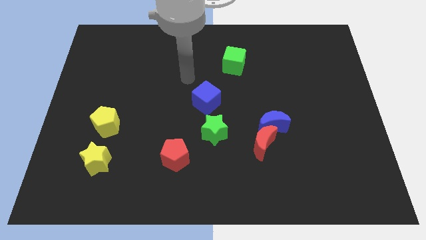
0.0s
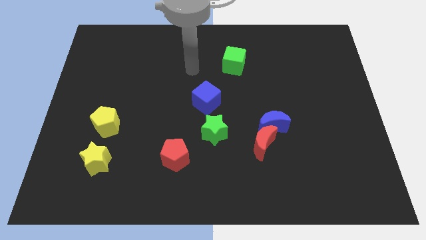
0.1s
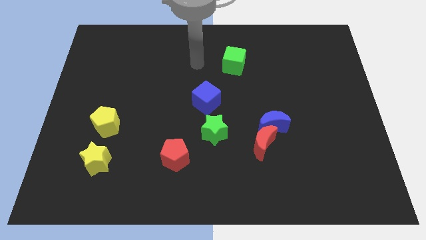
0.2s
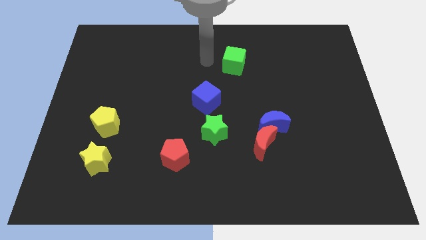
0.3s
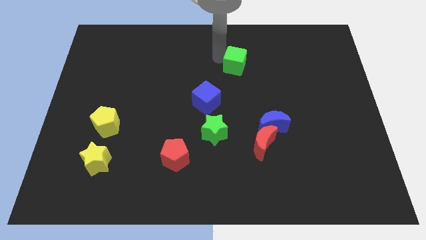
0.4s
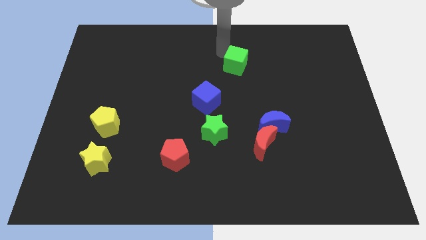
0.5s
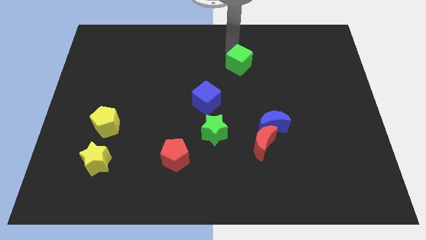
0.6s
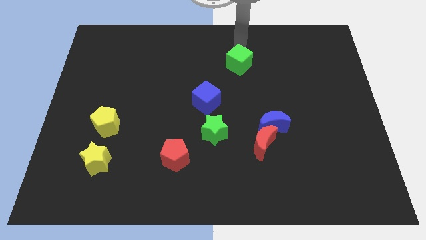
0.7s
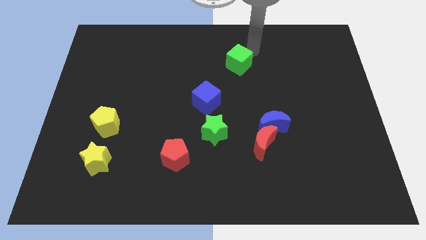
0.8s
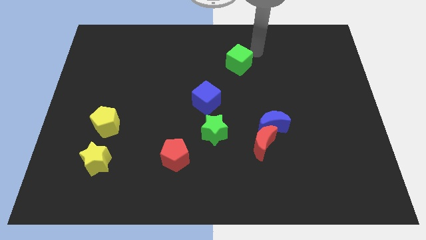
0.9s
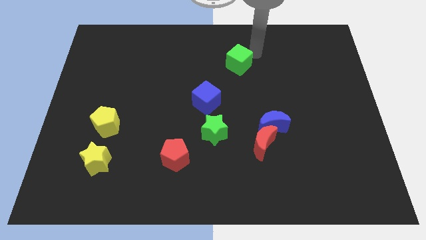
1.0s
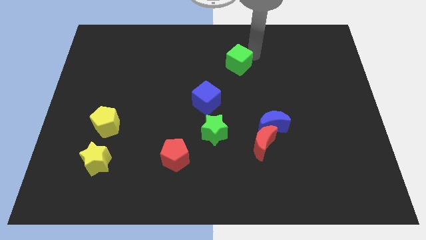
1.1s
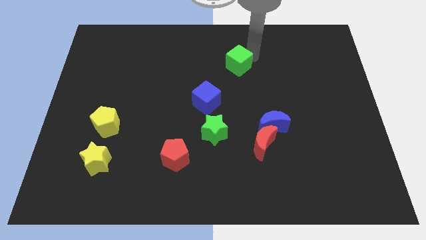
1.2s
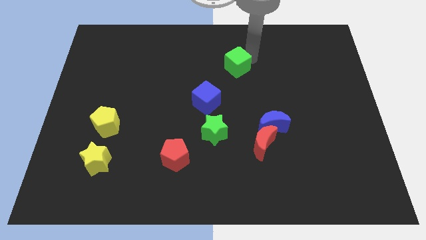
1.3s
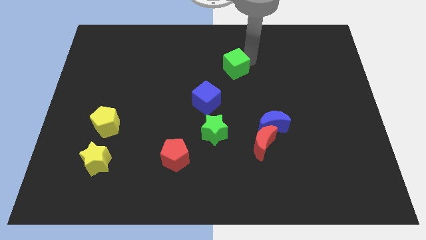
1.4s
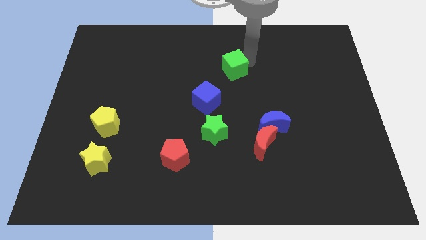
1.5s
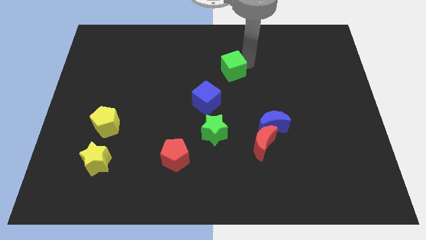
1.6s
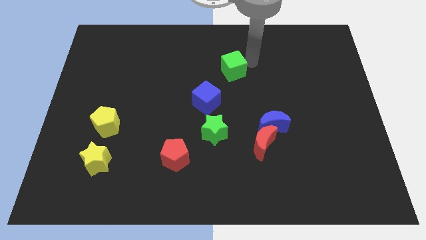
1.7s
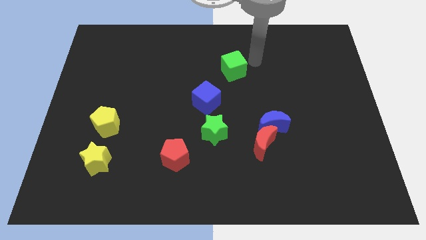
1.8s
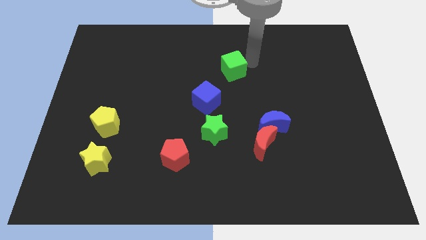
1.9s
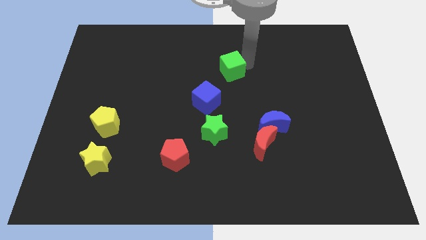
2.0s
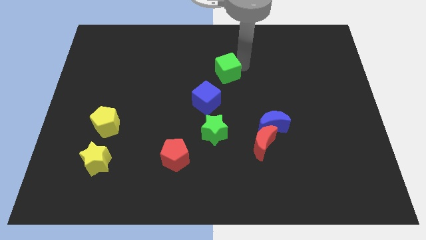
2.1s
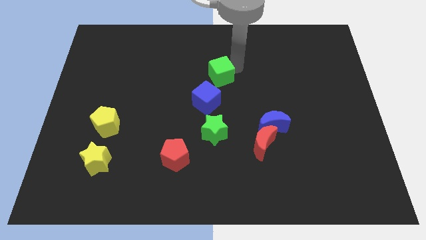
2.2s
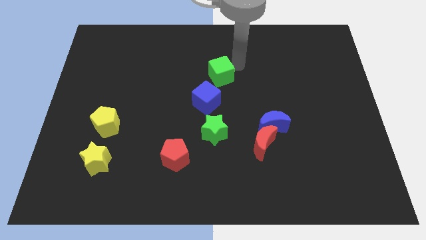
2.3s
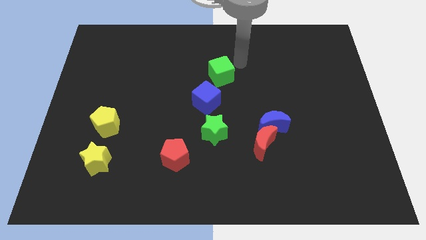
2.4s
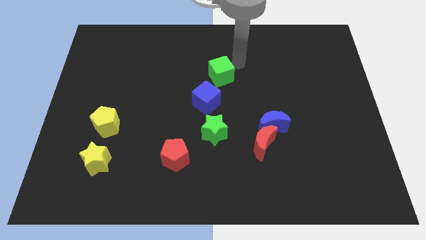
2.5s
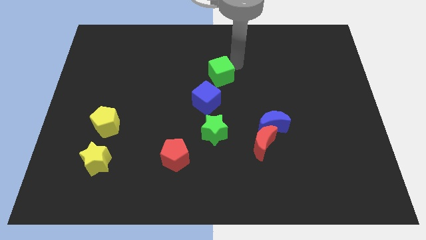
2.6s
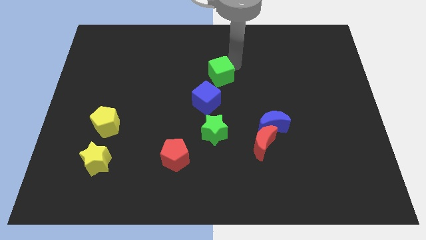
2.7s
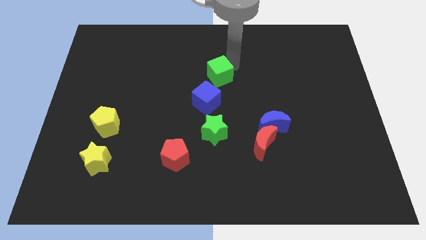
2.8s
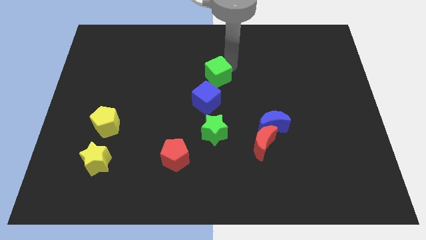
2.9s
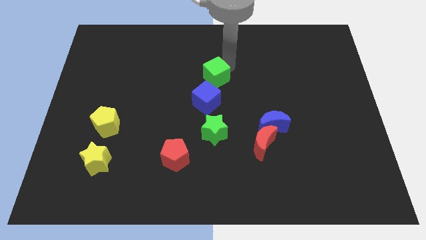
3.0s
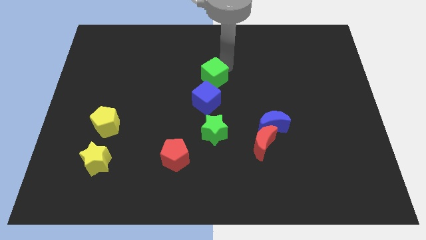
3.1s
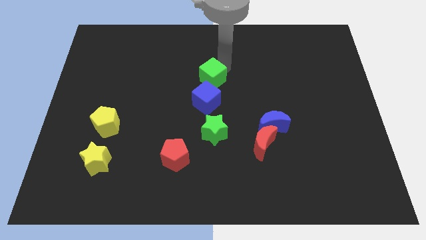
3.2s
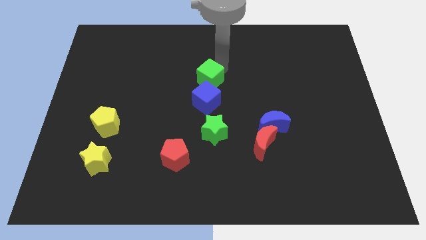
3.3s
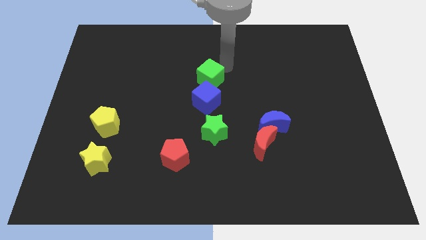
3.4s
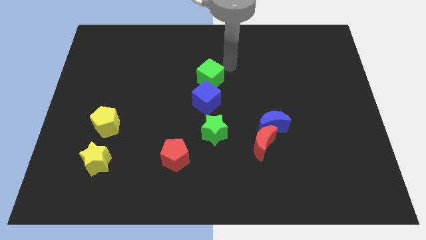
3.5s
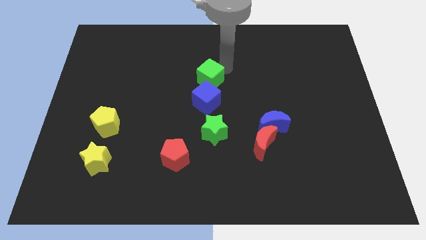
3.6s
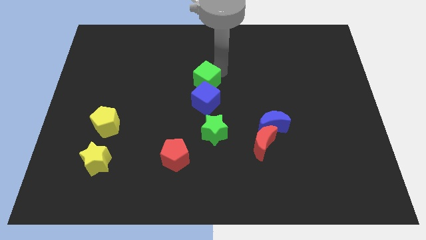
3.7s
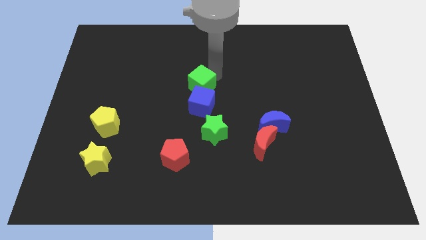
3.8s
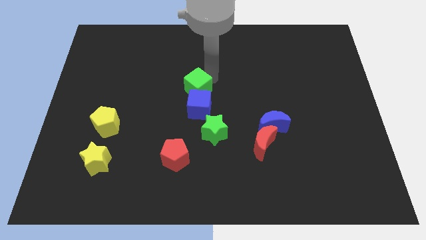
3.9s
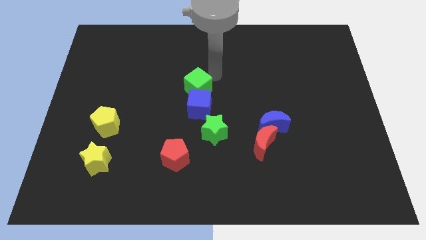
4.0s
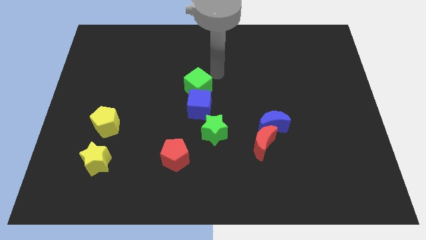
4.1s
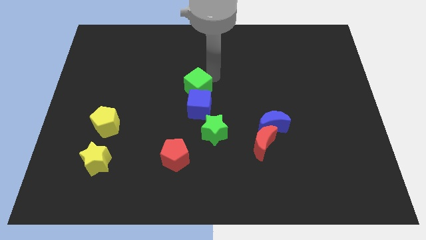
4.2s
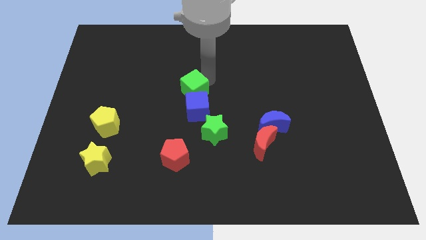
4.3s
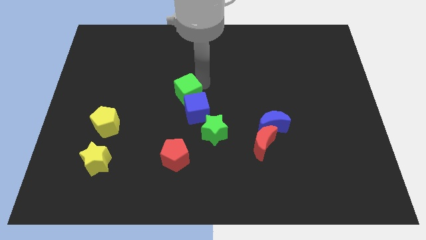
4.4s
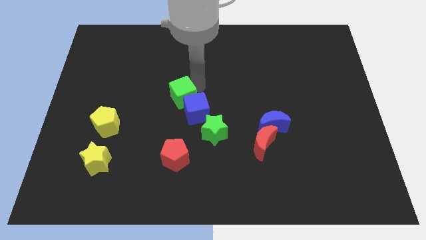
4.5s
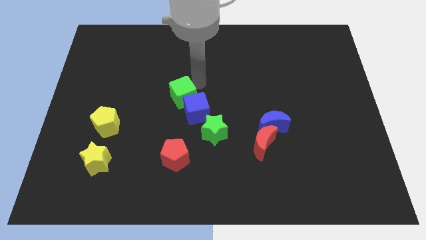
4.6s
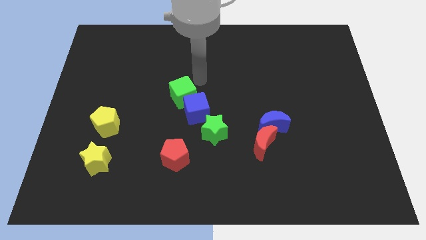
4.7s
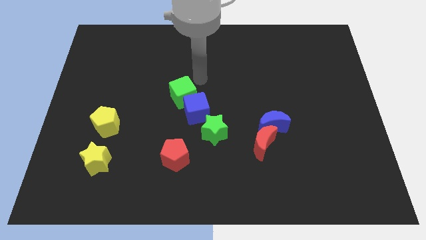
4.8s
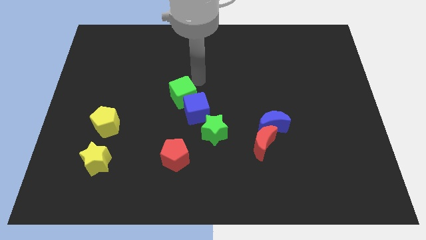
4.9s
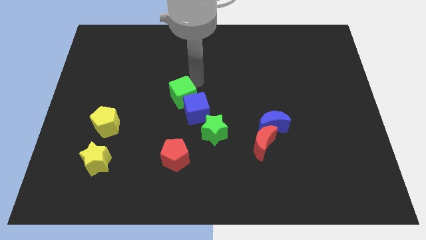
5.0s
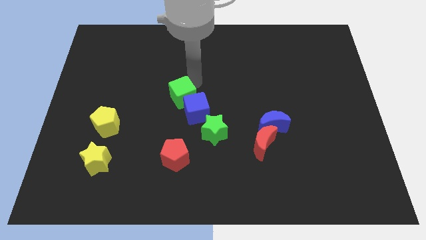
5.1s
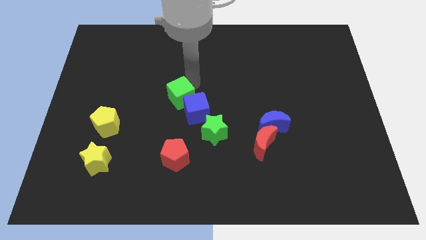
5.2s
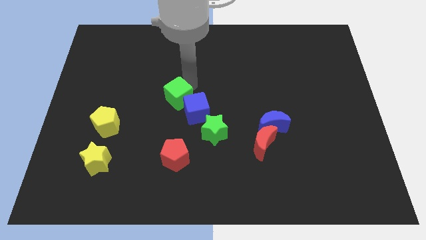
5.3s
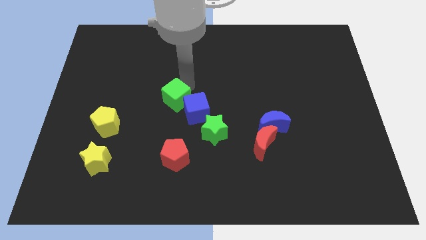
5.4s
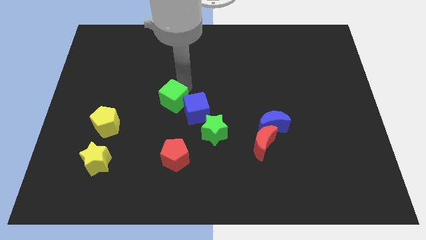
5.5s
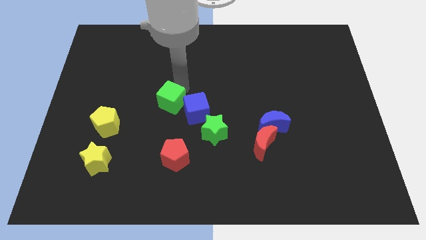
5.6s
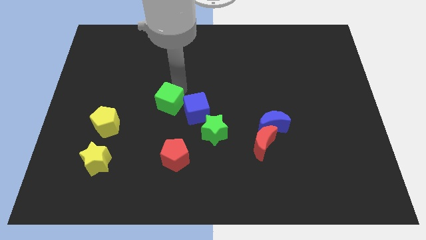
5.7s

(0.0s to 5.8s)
slide the green cube diagonally downwards and left

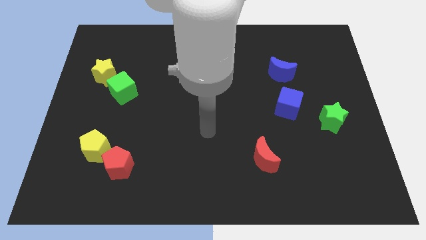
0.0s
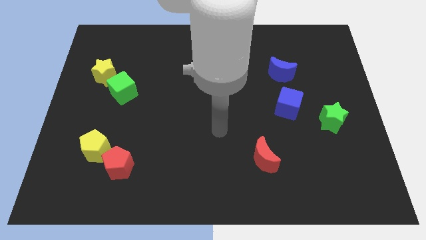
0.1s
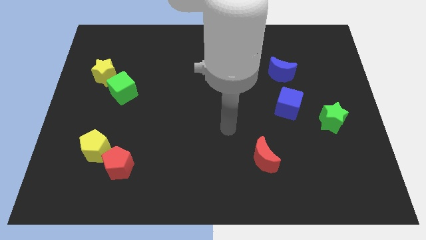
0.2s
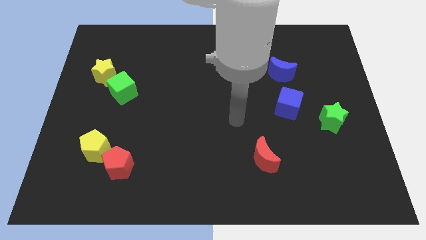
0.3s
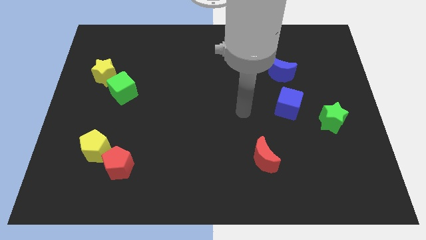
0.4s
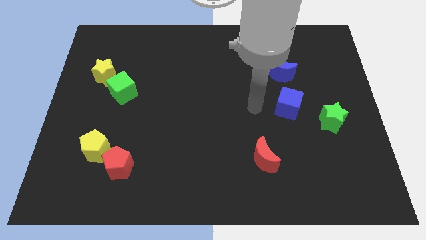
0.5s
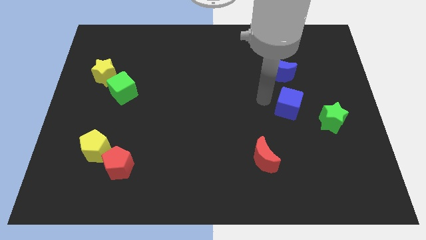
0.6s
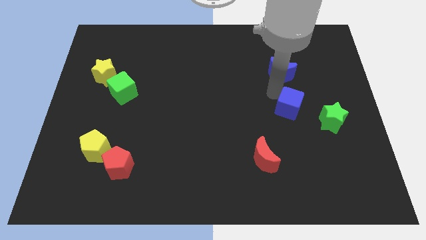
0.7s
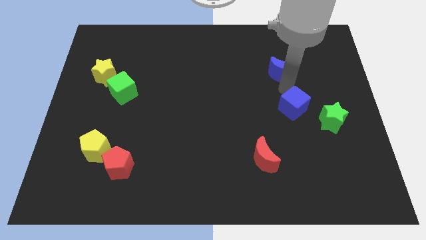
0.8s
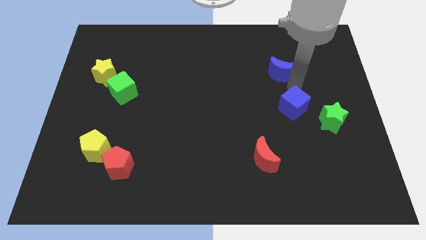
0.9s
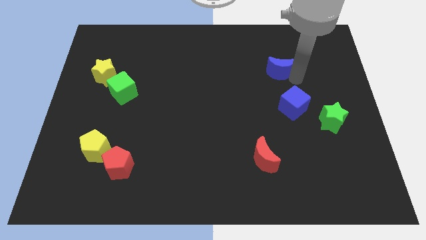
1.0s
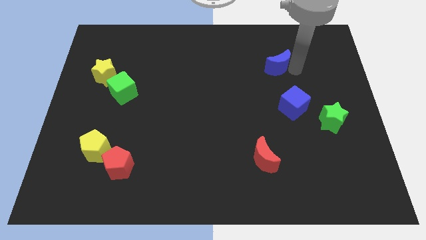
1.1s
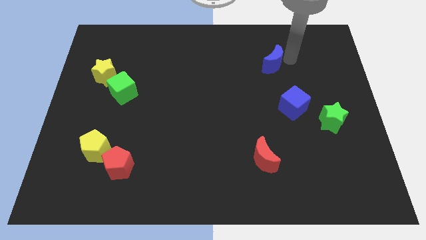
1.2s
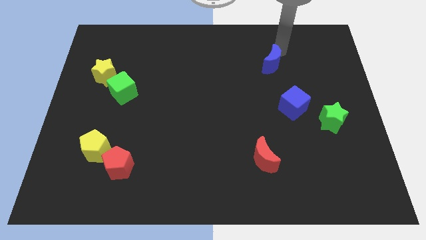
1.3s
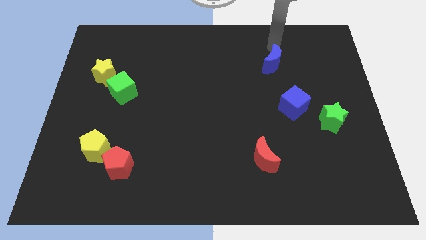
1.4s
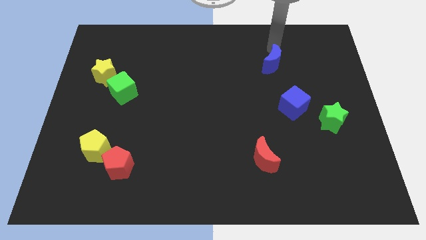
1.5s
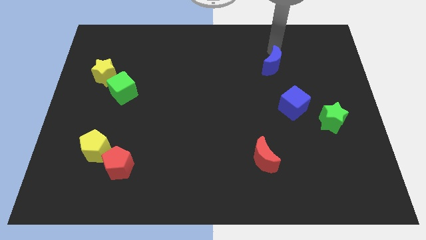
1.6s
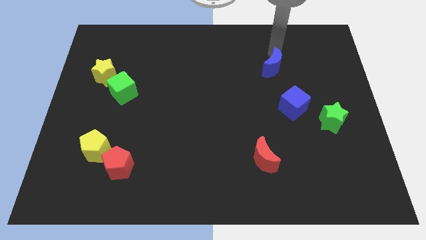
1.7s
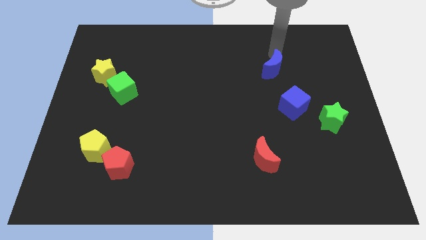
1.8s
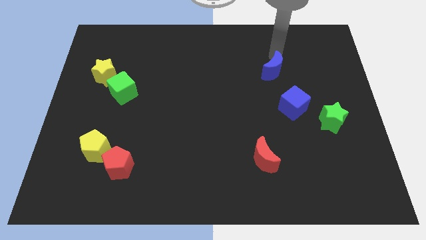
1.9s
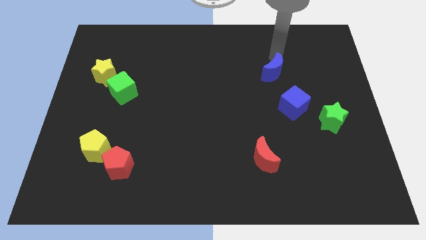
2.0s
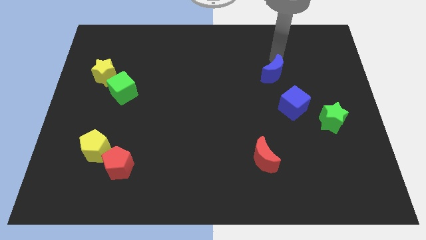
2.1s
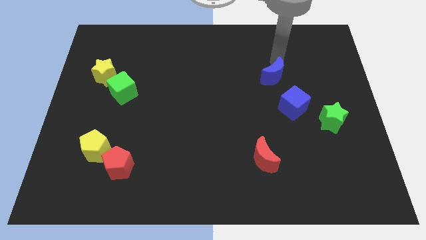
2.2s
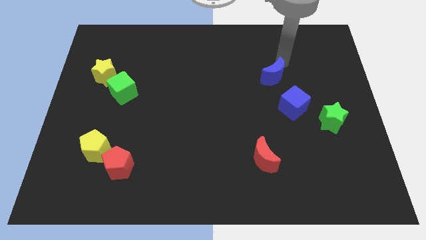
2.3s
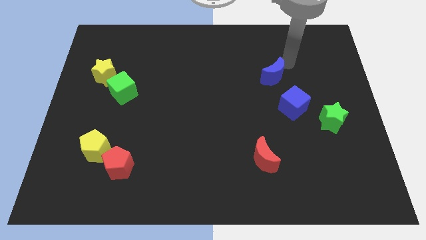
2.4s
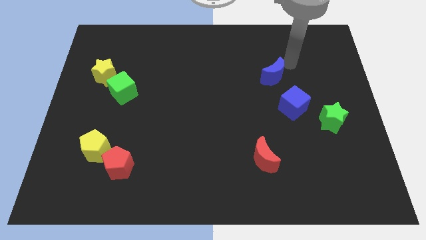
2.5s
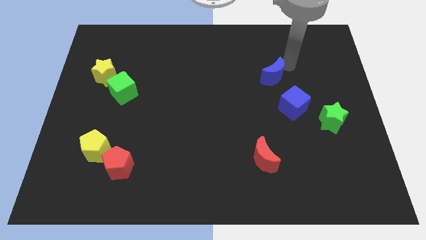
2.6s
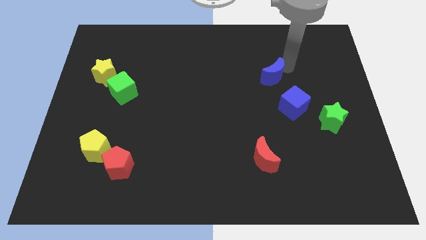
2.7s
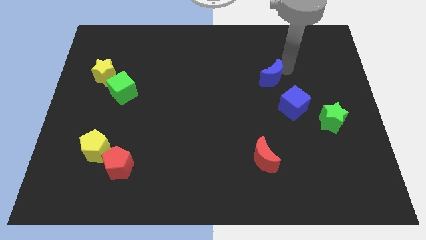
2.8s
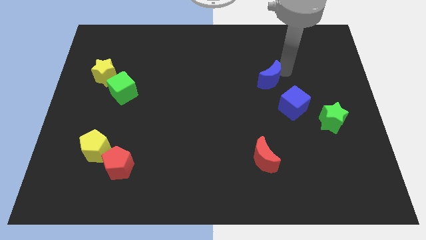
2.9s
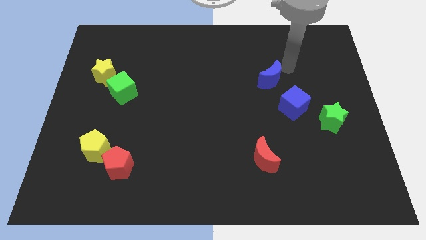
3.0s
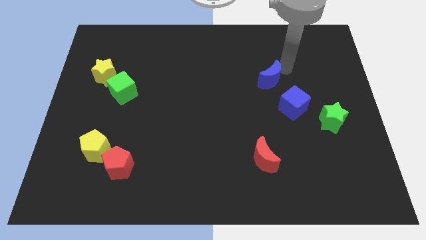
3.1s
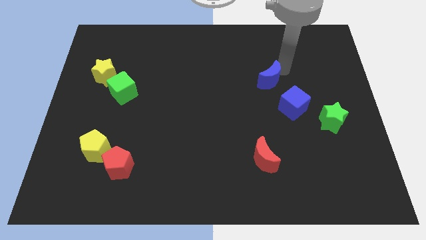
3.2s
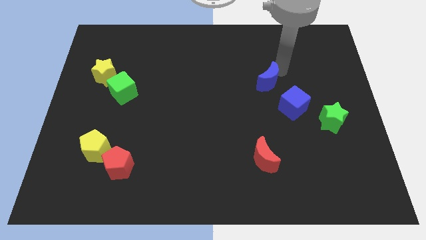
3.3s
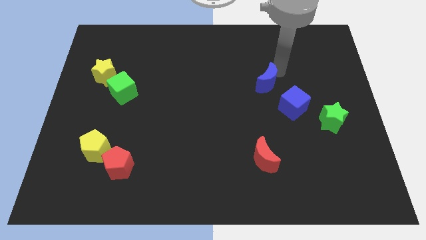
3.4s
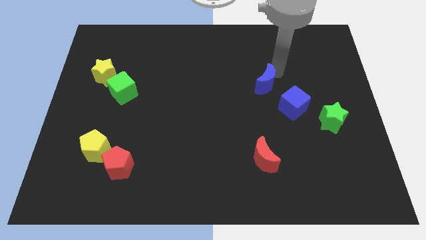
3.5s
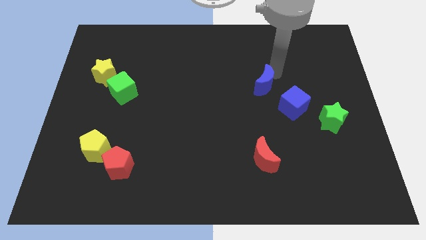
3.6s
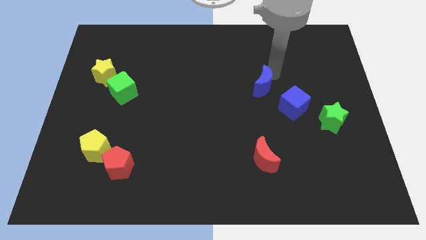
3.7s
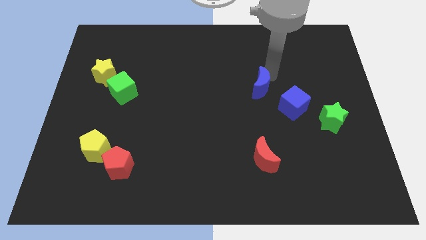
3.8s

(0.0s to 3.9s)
move the blue moon slightly downwards and to the left diagonally
